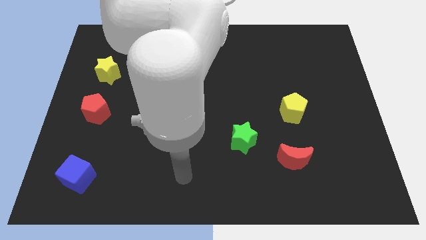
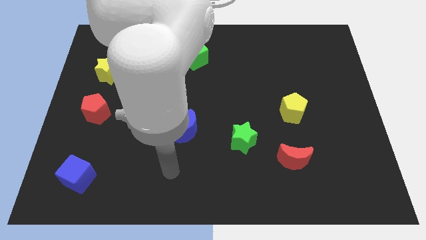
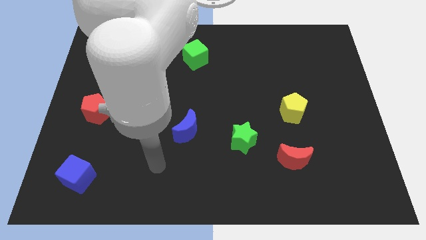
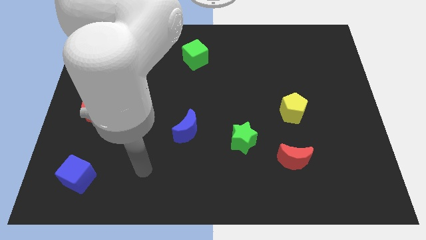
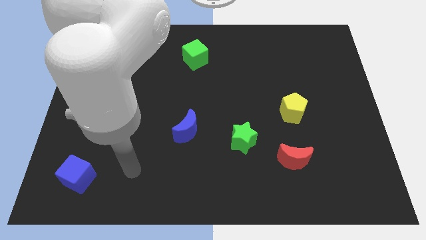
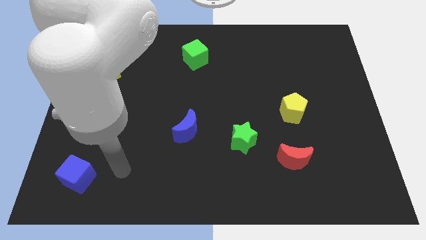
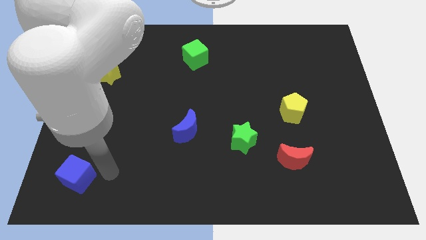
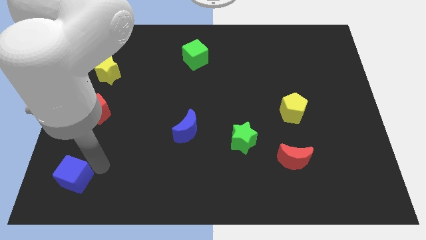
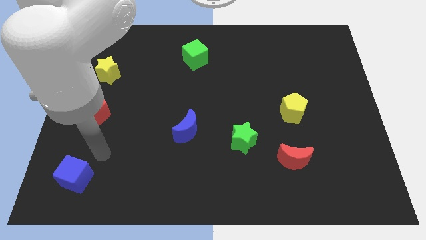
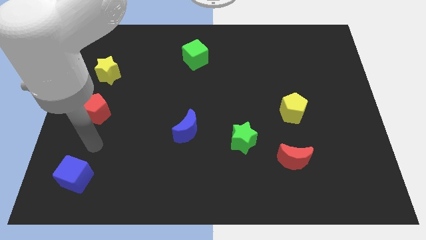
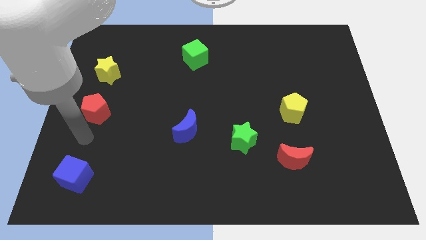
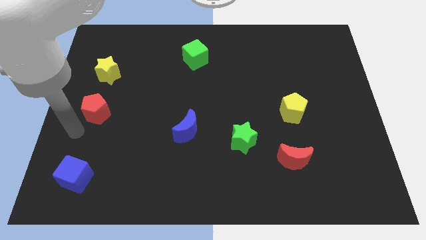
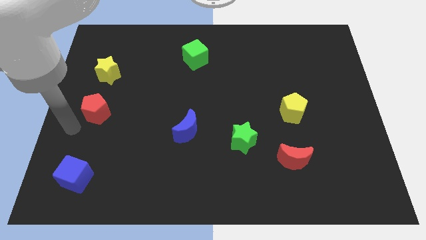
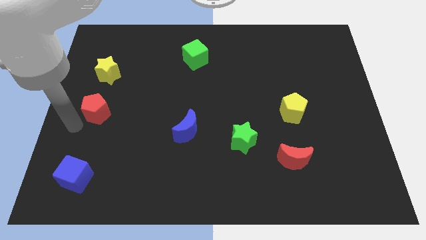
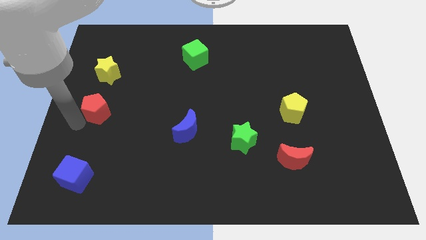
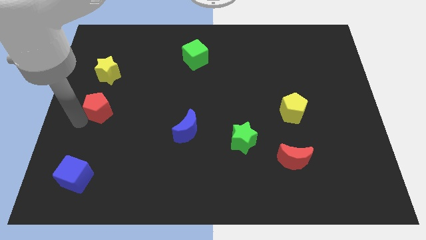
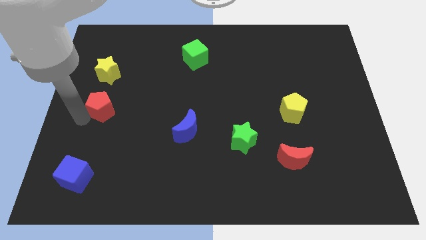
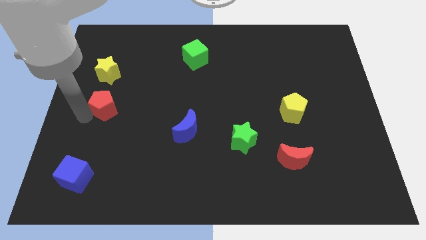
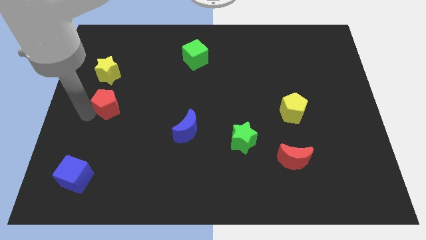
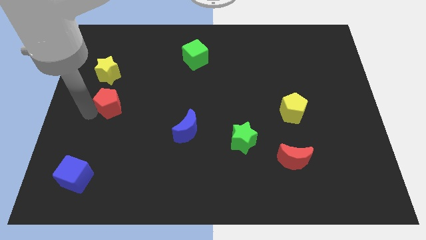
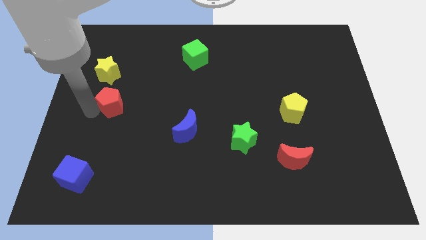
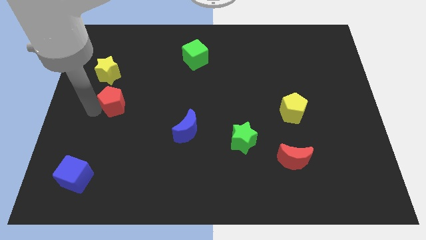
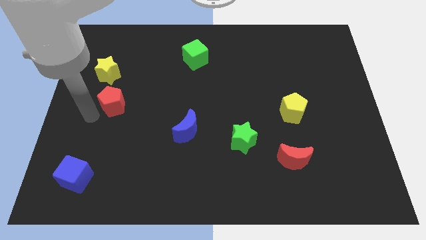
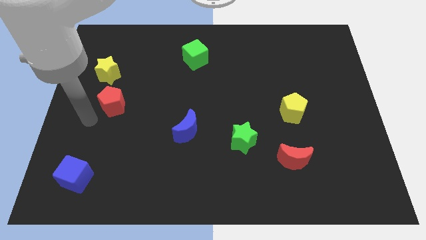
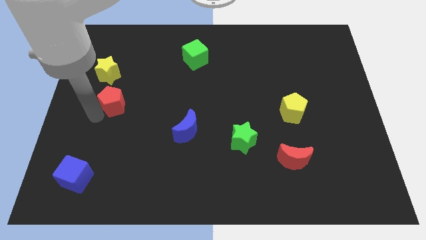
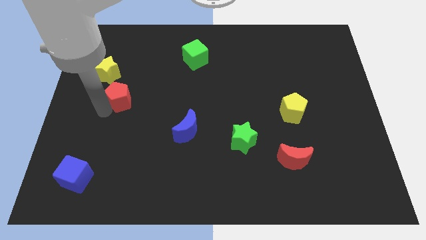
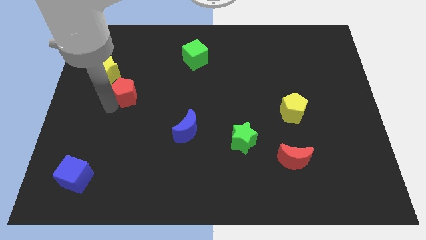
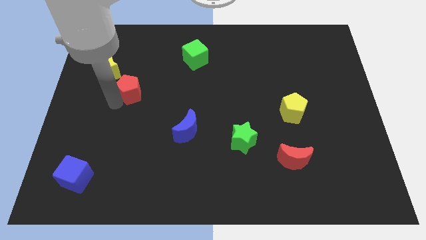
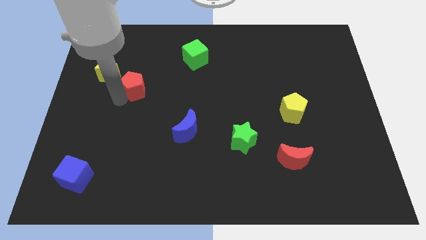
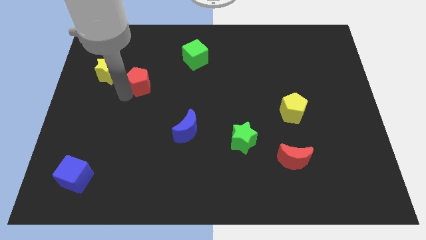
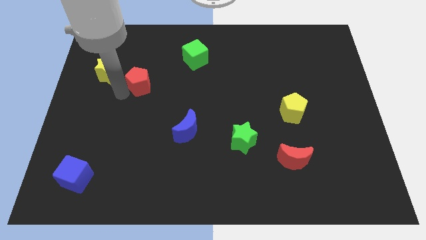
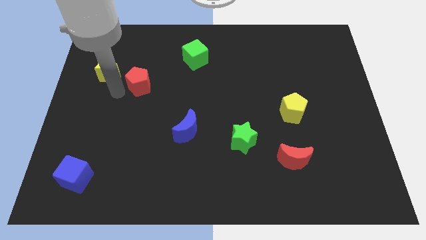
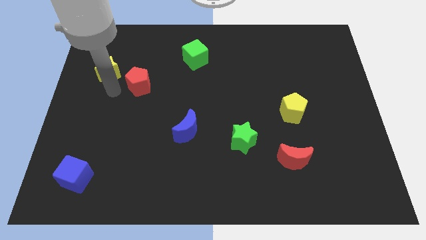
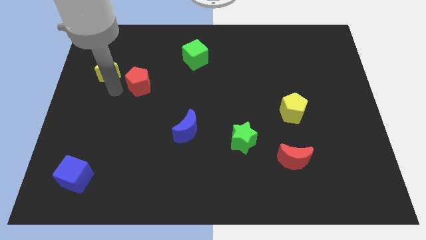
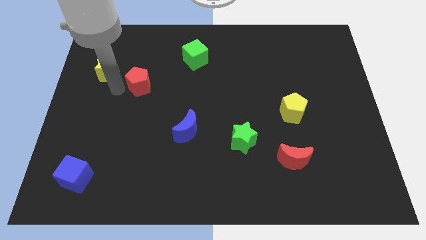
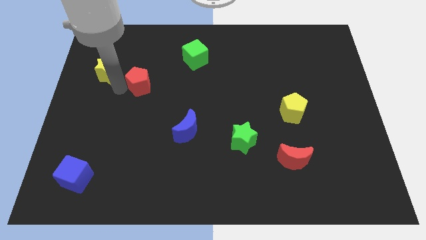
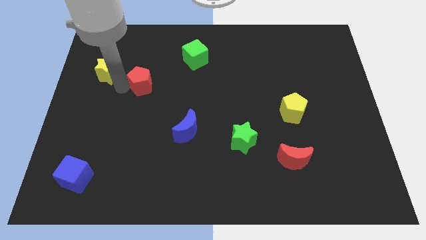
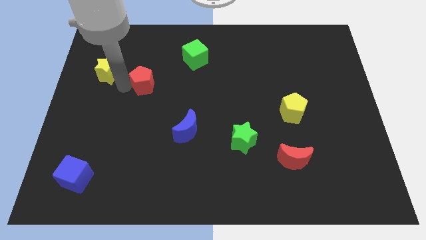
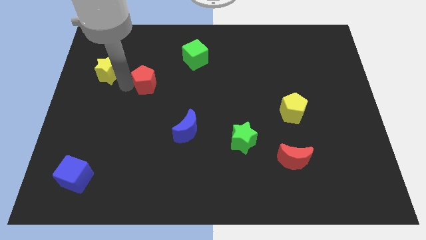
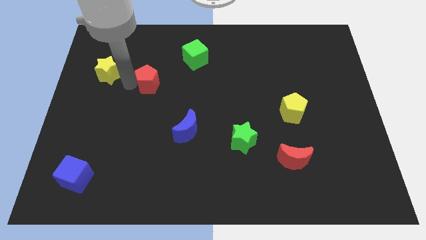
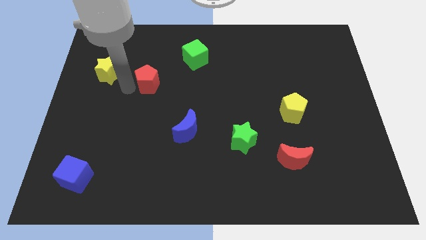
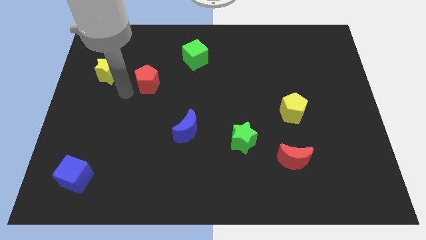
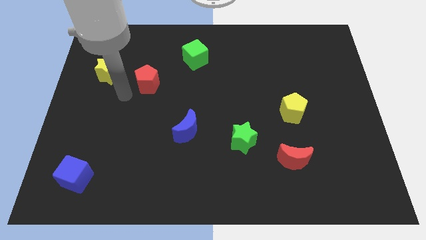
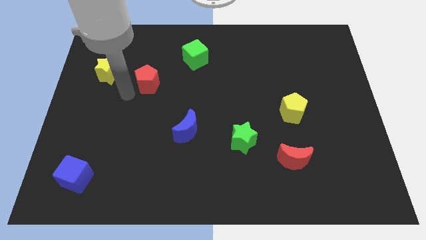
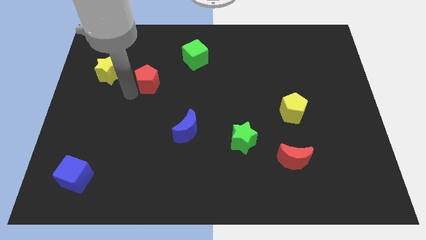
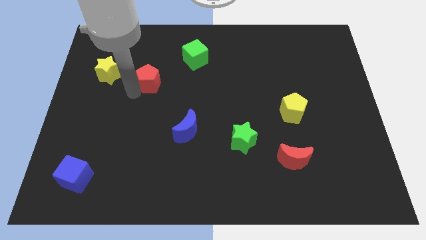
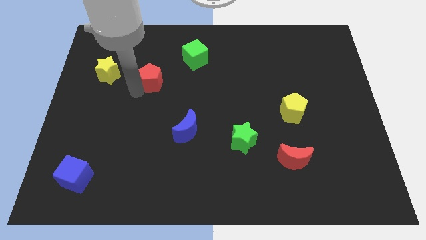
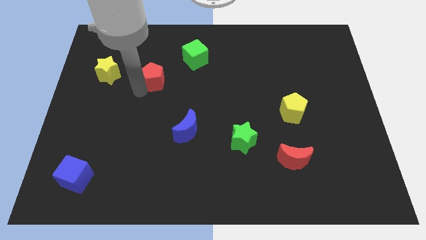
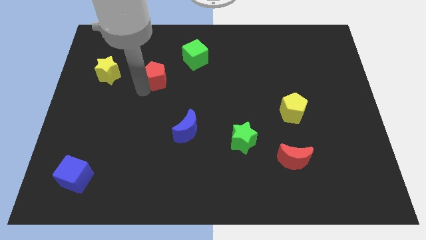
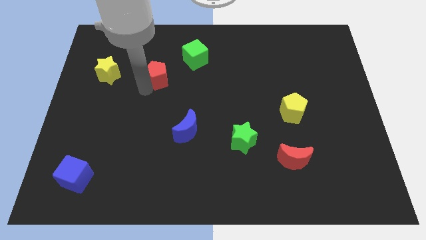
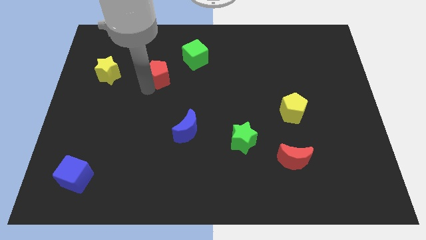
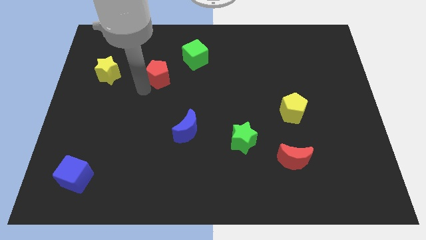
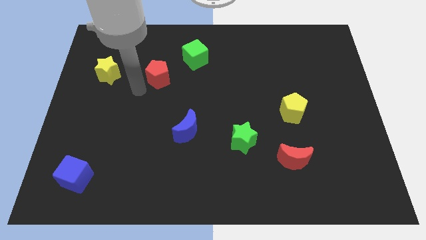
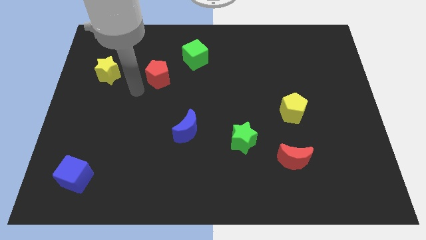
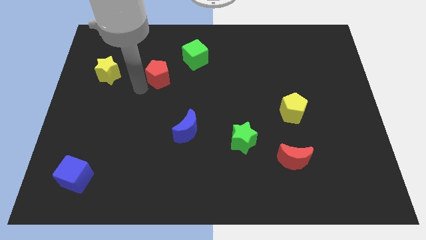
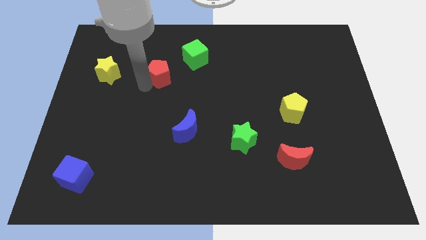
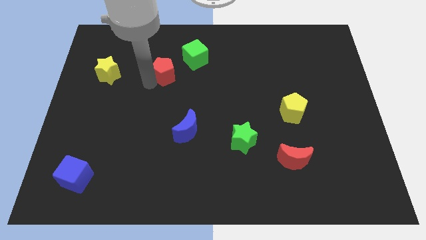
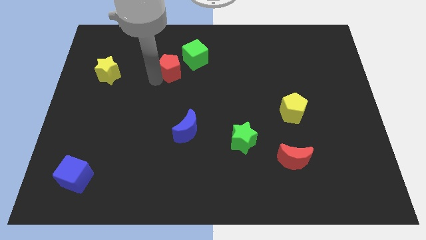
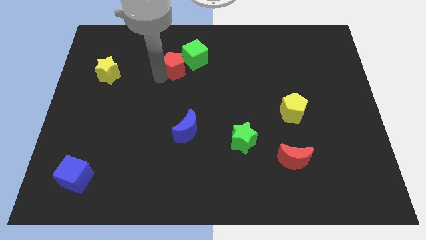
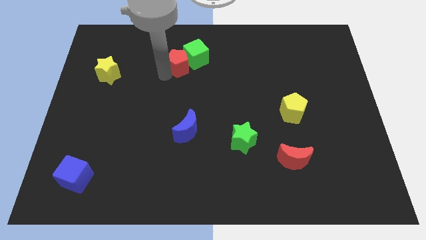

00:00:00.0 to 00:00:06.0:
put the red pentagon towards the green cube
